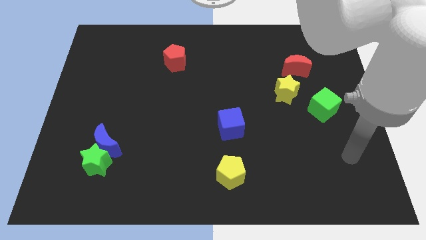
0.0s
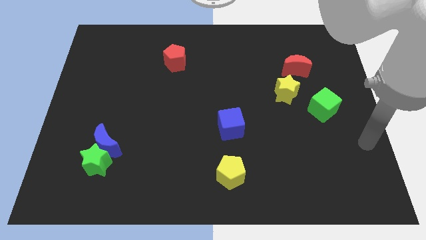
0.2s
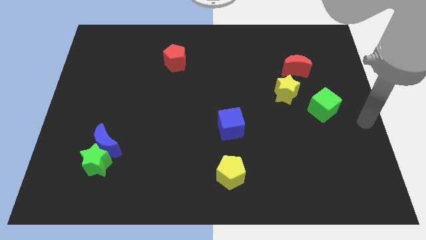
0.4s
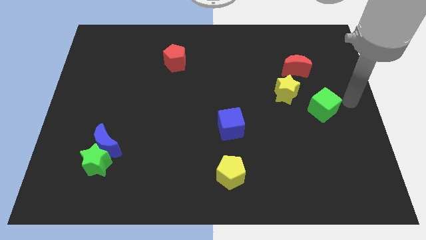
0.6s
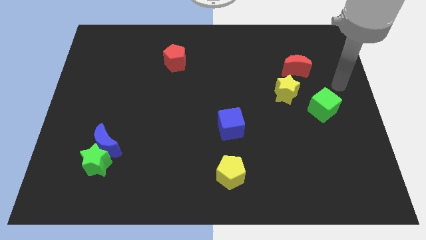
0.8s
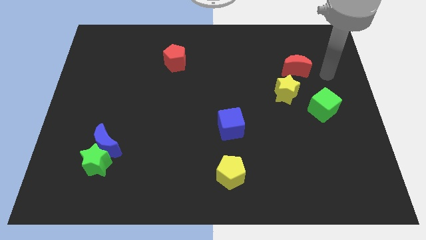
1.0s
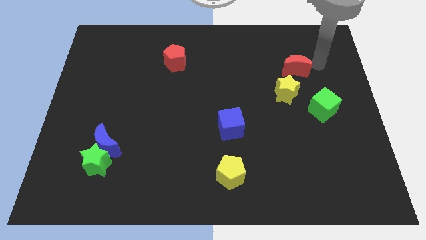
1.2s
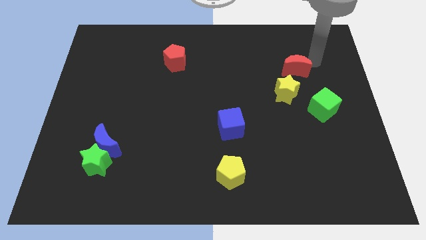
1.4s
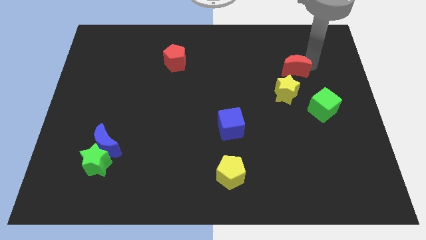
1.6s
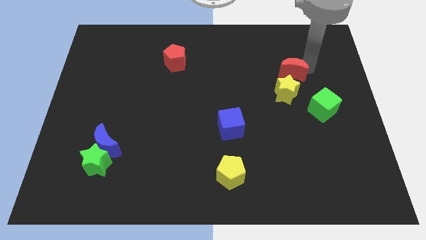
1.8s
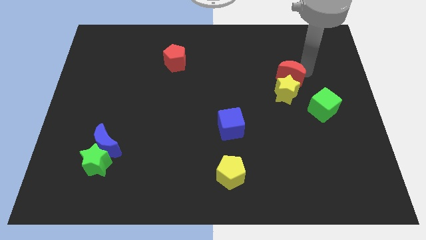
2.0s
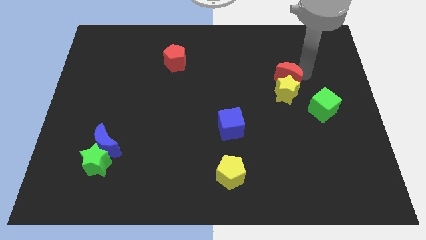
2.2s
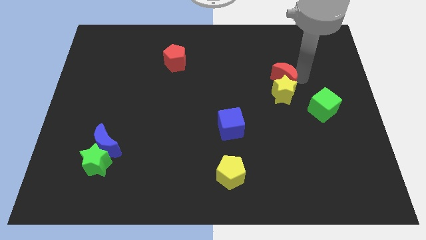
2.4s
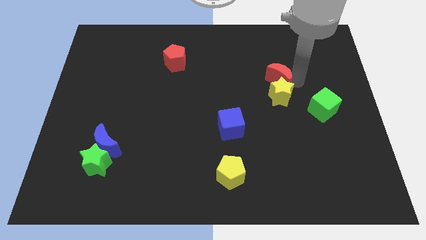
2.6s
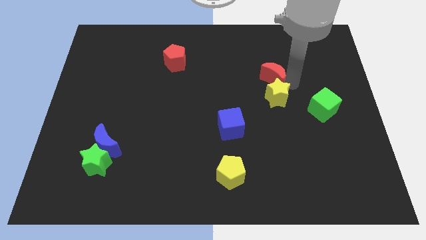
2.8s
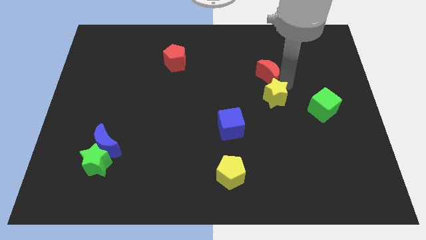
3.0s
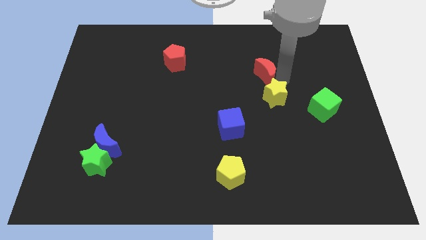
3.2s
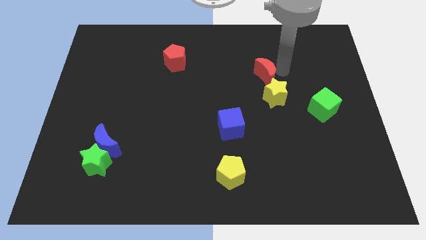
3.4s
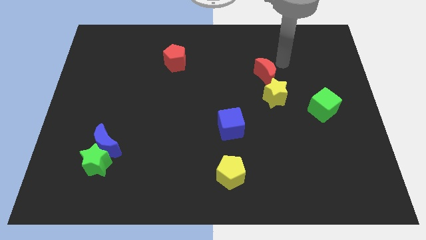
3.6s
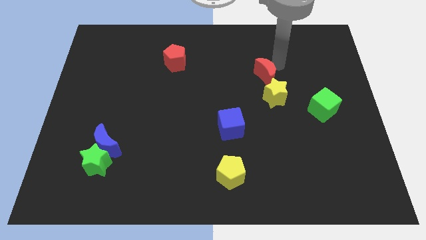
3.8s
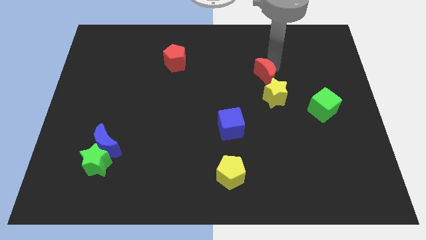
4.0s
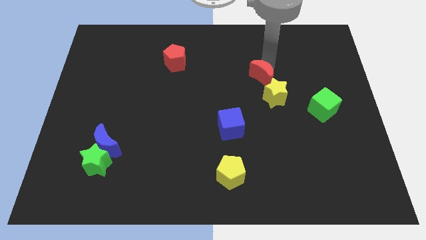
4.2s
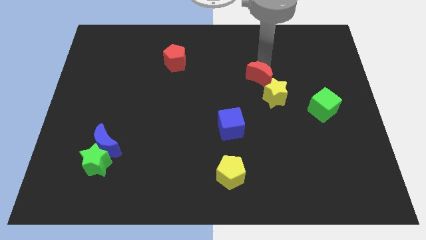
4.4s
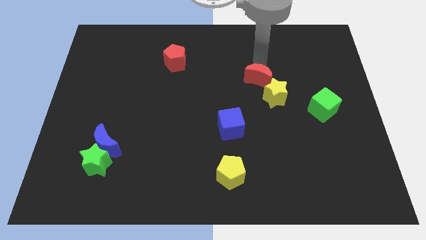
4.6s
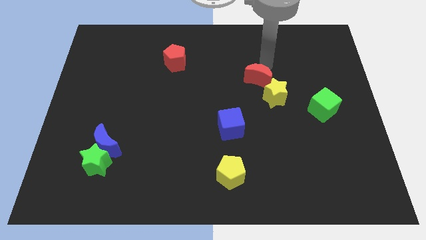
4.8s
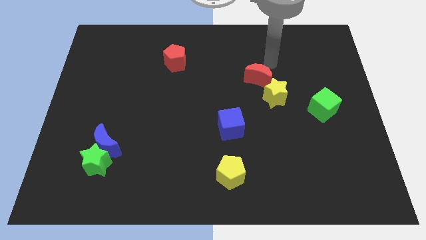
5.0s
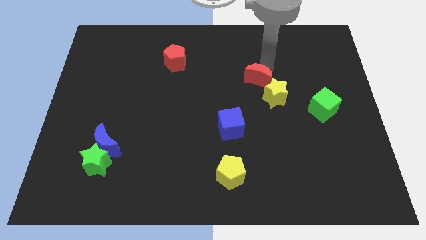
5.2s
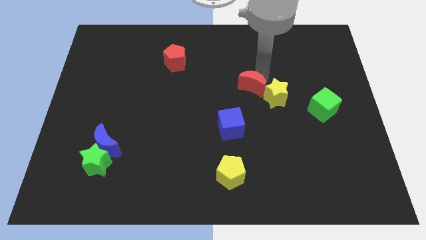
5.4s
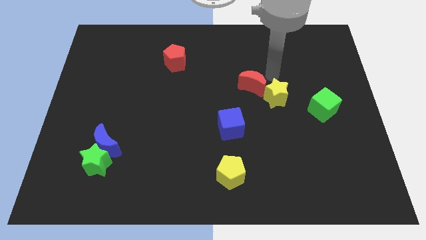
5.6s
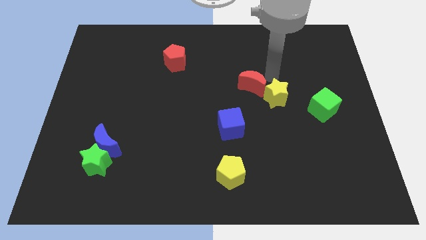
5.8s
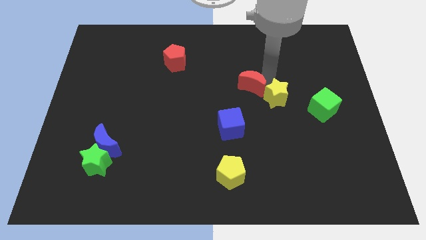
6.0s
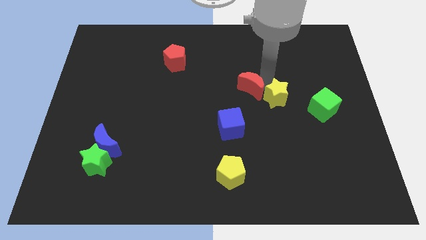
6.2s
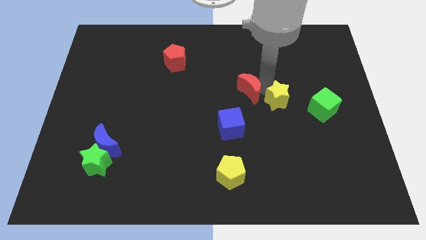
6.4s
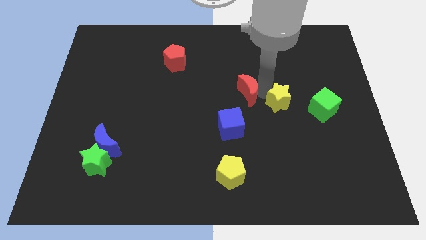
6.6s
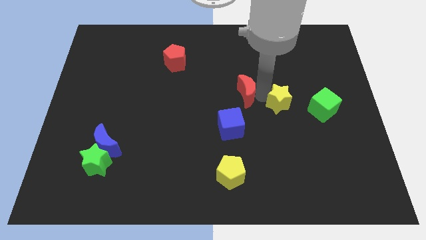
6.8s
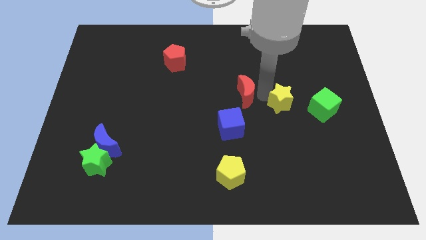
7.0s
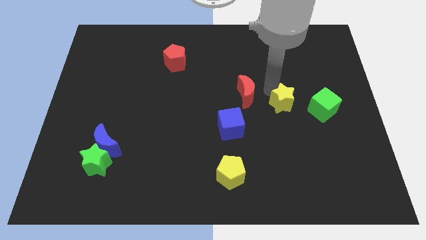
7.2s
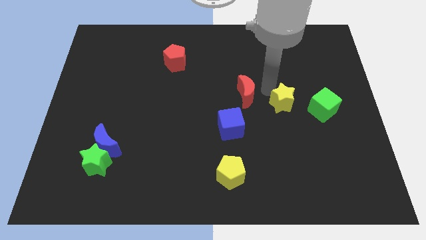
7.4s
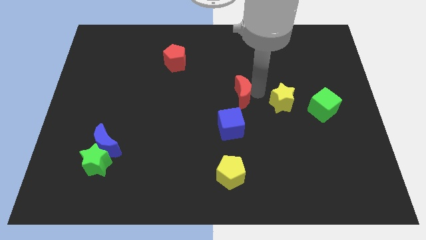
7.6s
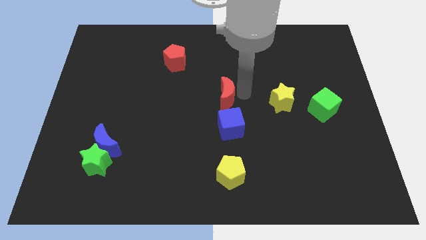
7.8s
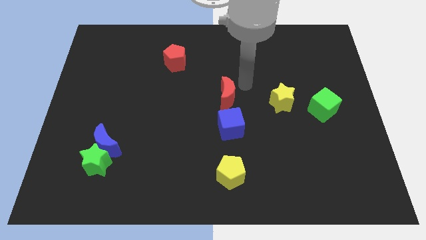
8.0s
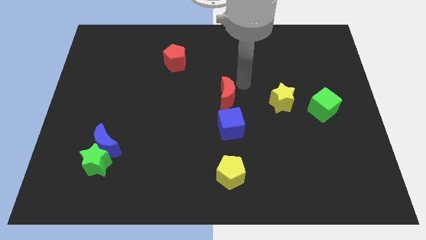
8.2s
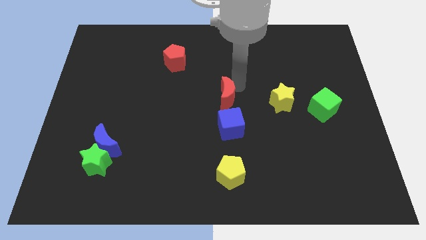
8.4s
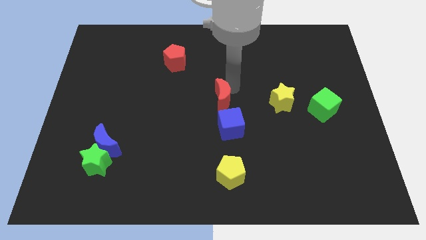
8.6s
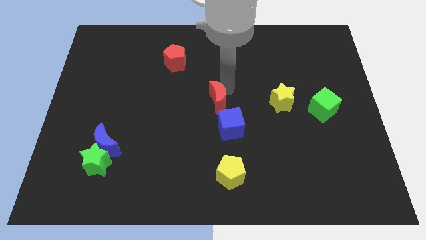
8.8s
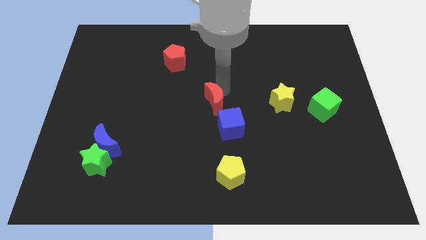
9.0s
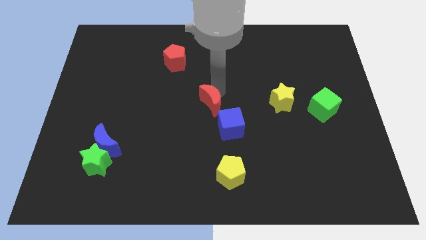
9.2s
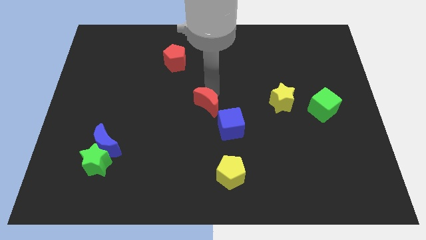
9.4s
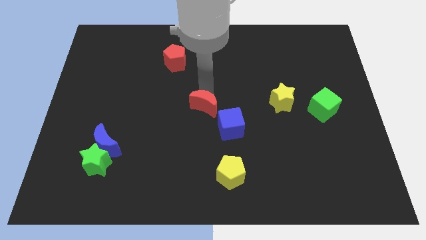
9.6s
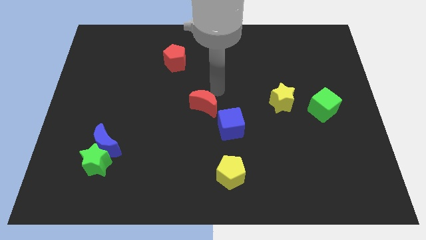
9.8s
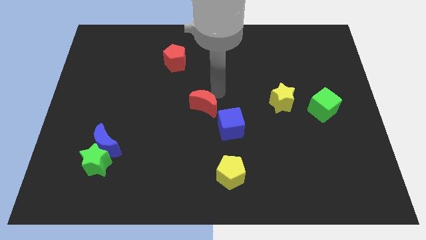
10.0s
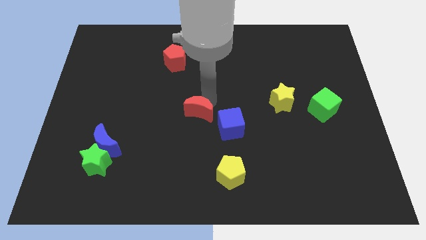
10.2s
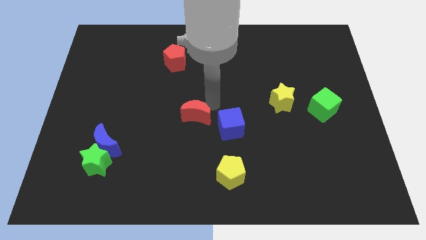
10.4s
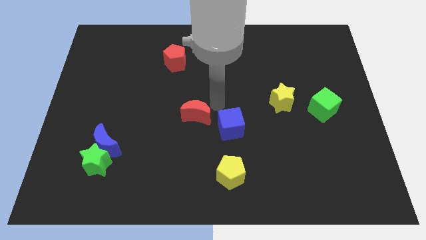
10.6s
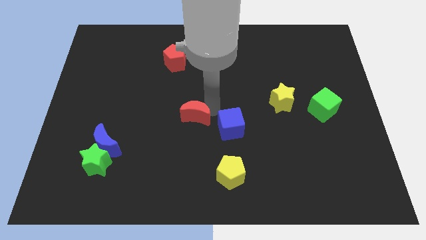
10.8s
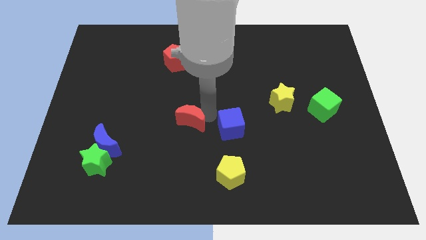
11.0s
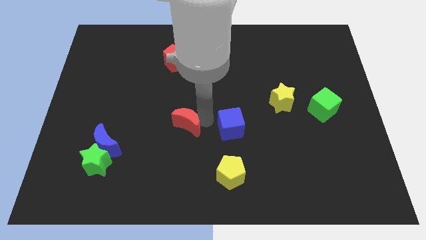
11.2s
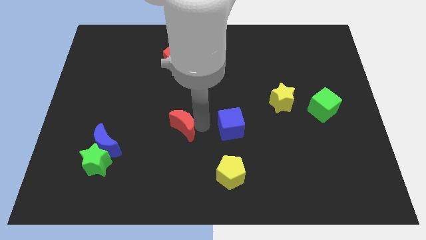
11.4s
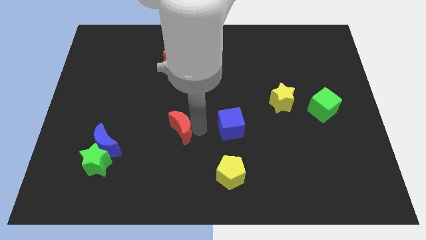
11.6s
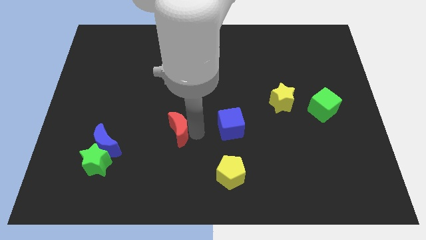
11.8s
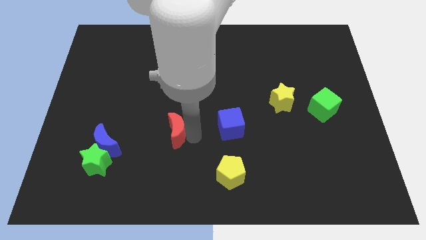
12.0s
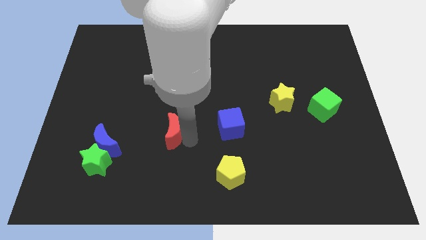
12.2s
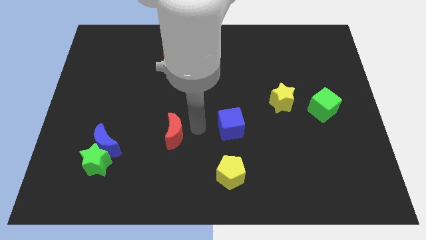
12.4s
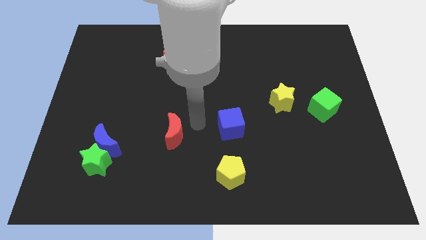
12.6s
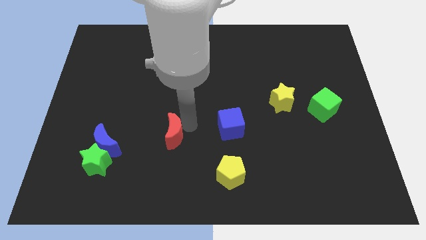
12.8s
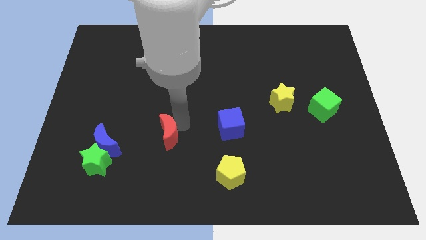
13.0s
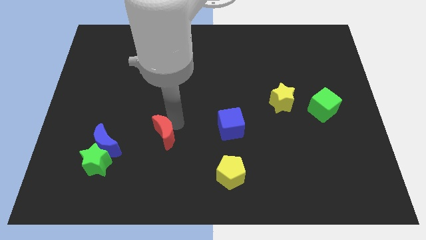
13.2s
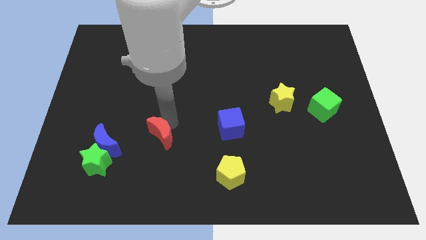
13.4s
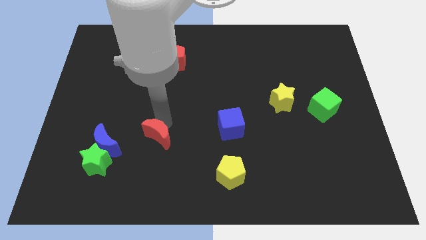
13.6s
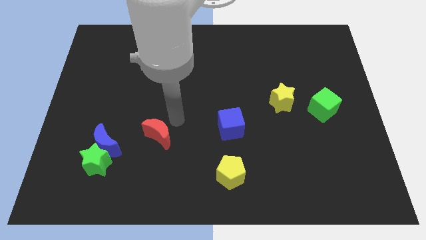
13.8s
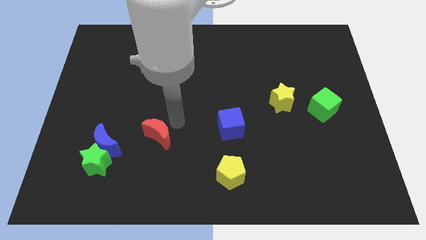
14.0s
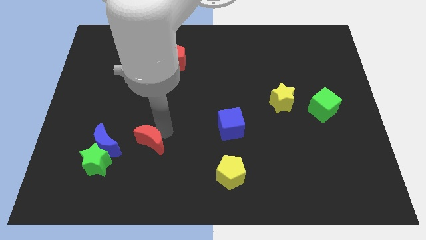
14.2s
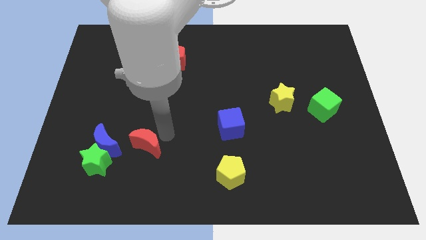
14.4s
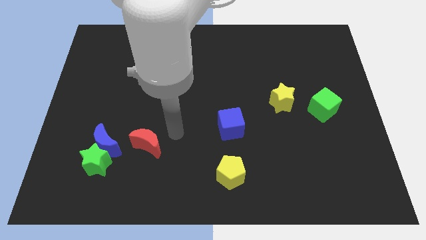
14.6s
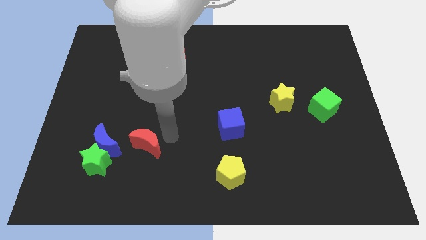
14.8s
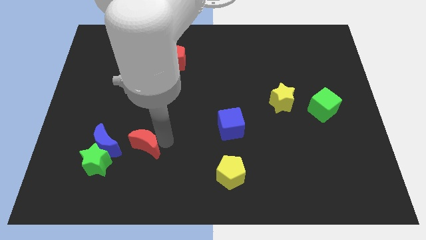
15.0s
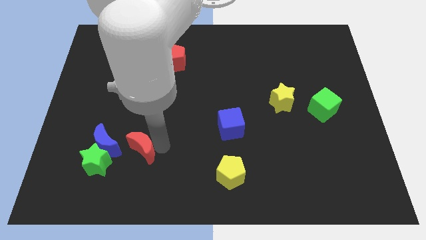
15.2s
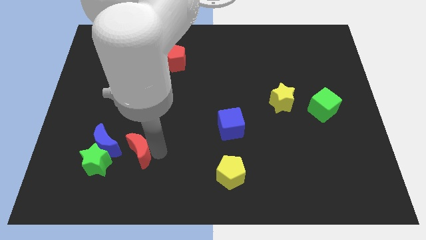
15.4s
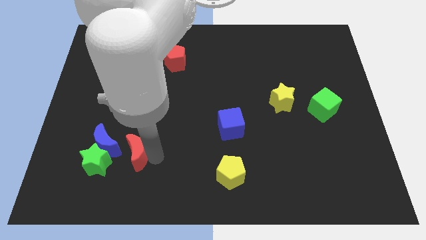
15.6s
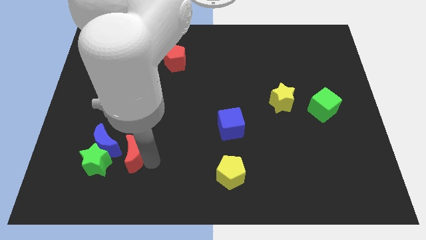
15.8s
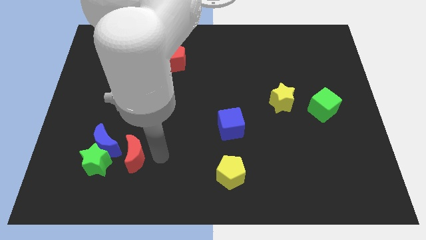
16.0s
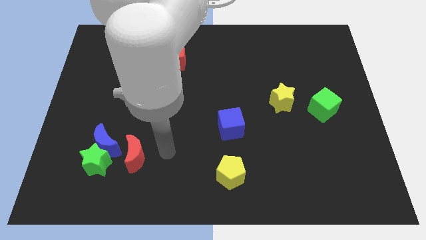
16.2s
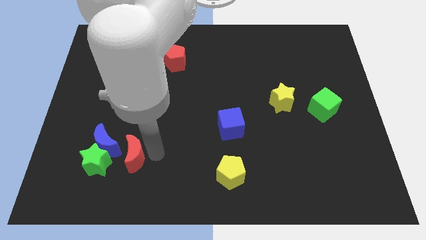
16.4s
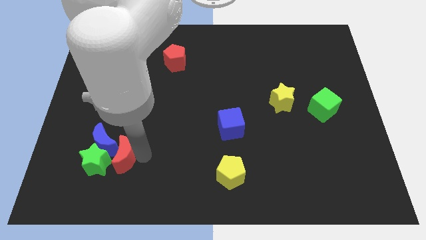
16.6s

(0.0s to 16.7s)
move the red moon towards the green star
